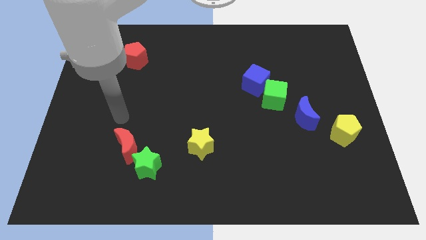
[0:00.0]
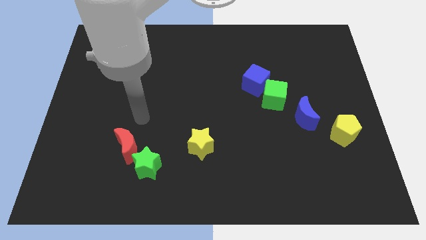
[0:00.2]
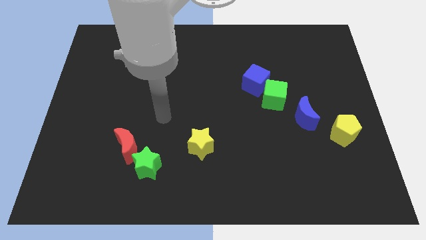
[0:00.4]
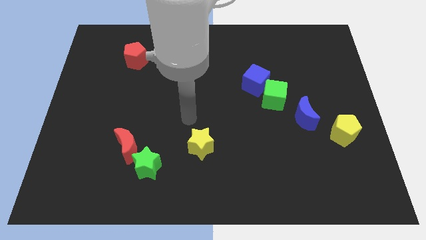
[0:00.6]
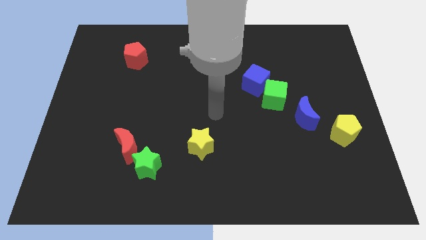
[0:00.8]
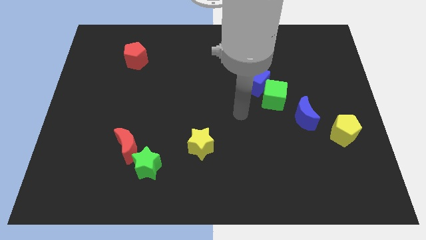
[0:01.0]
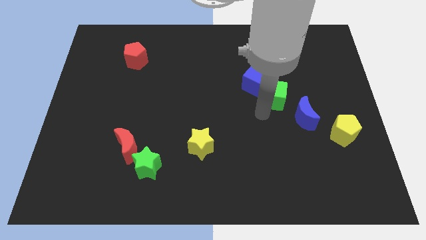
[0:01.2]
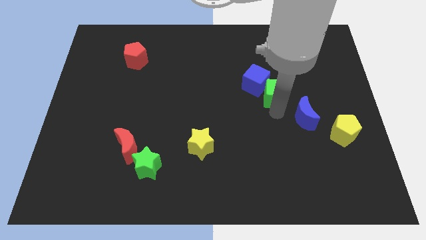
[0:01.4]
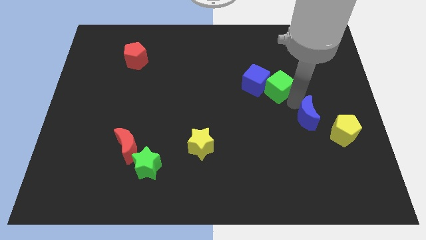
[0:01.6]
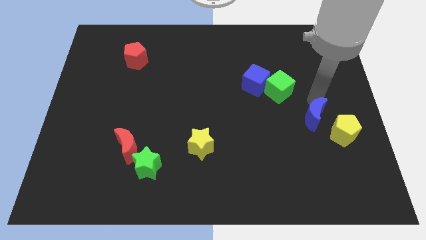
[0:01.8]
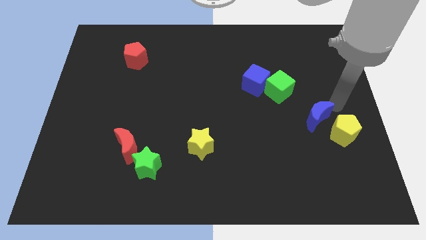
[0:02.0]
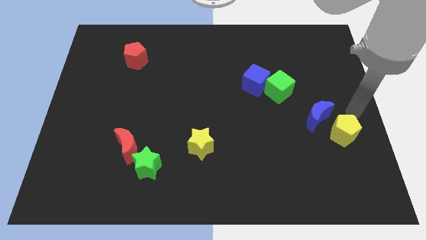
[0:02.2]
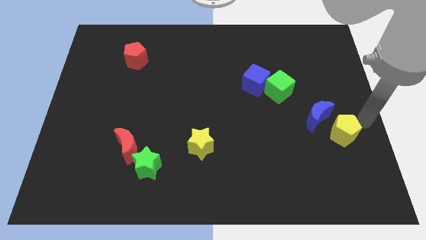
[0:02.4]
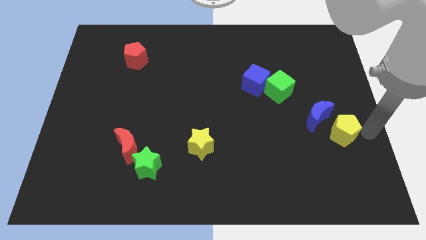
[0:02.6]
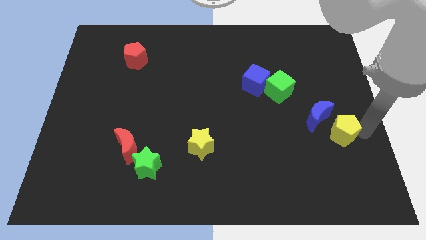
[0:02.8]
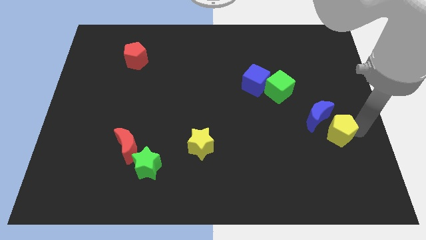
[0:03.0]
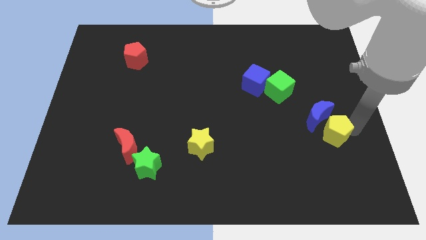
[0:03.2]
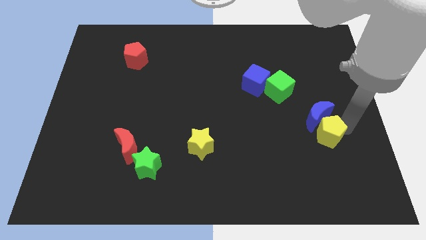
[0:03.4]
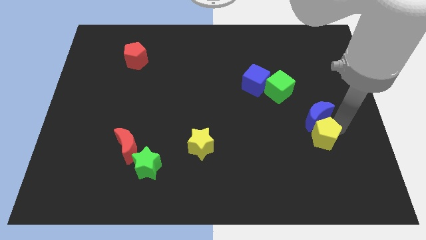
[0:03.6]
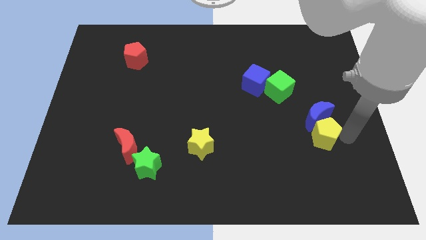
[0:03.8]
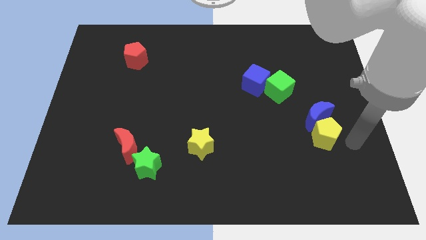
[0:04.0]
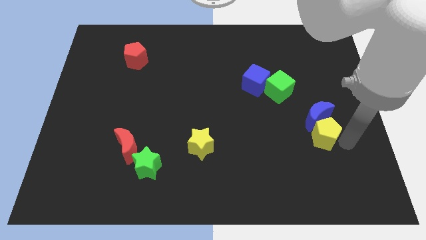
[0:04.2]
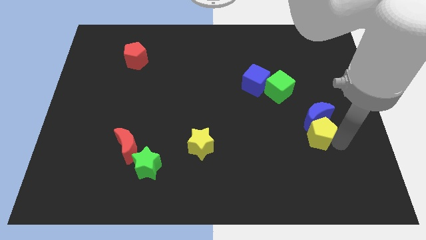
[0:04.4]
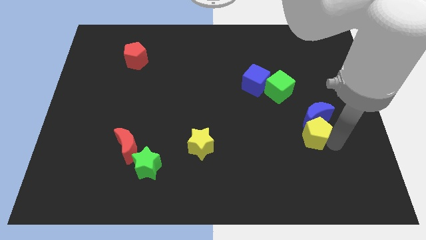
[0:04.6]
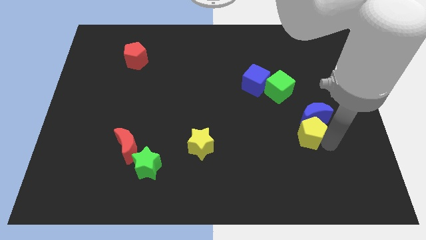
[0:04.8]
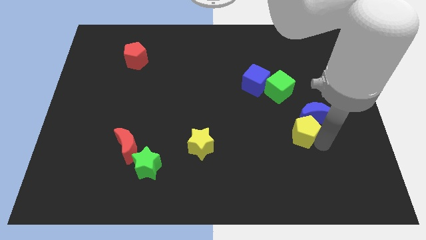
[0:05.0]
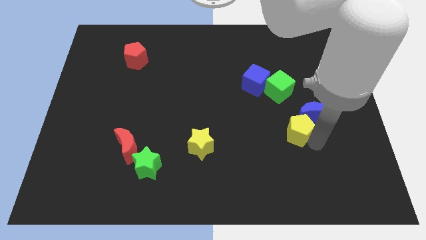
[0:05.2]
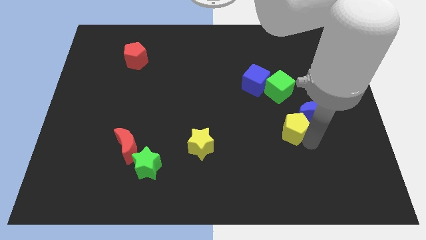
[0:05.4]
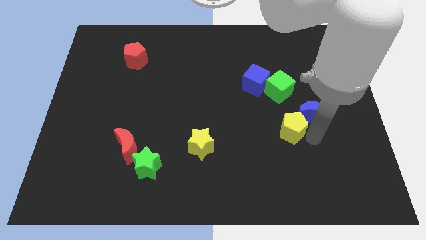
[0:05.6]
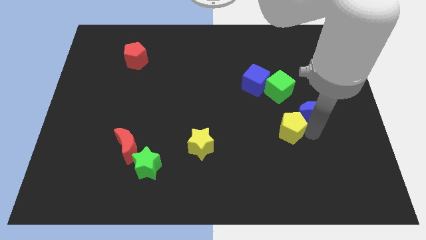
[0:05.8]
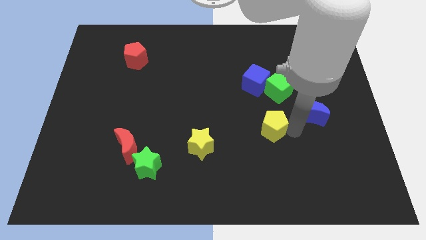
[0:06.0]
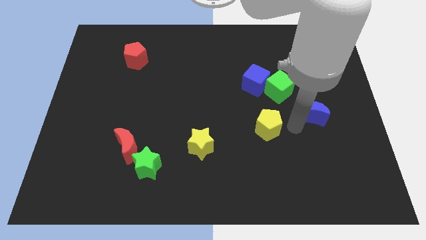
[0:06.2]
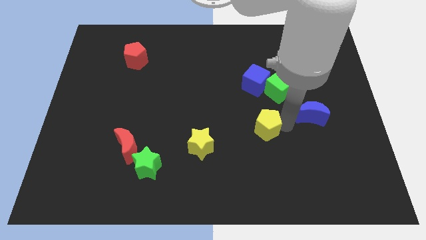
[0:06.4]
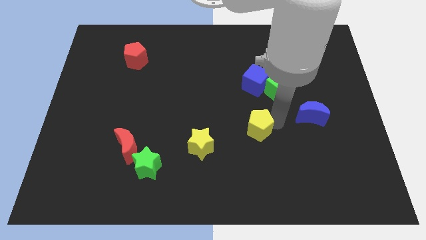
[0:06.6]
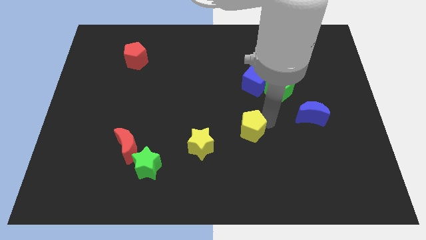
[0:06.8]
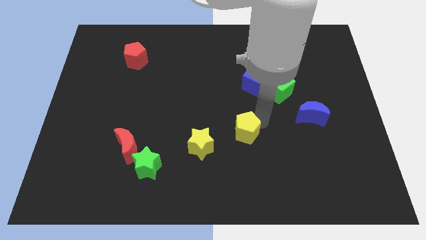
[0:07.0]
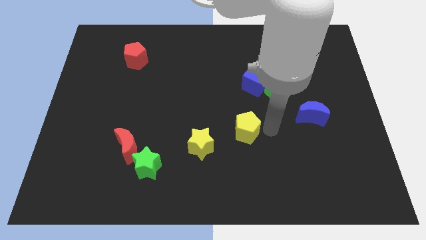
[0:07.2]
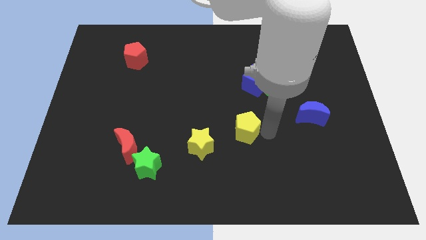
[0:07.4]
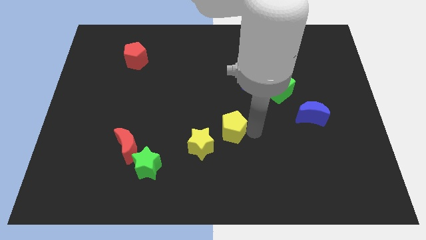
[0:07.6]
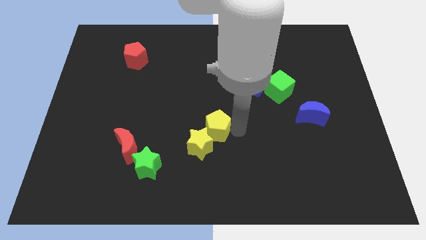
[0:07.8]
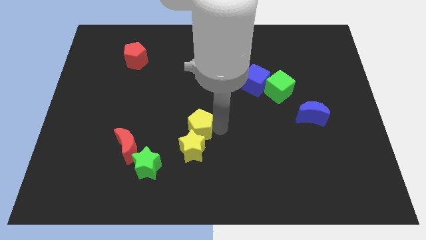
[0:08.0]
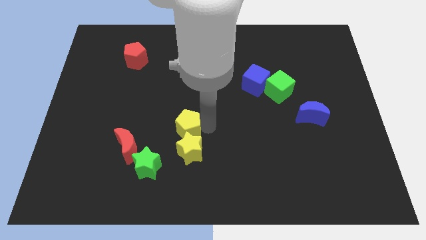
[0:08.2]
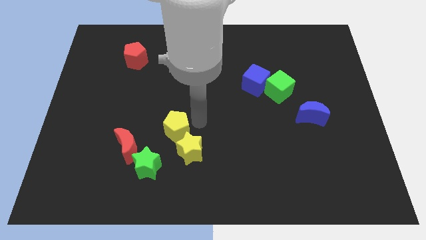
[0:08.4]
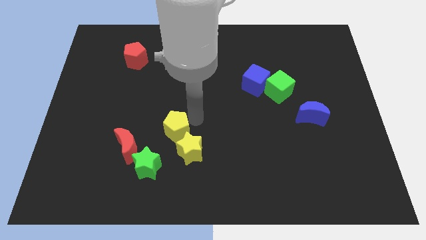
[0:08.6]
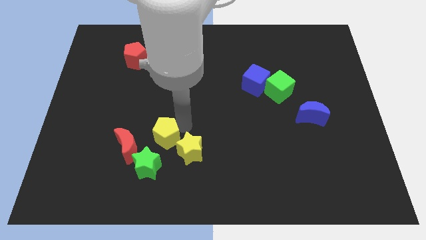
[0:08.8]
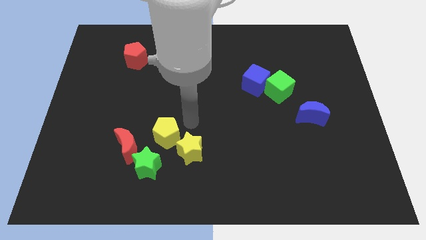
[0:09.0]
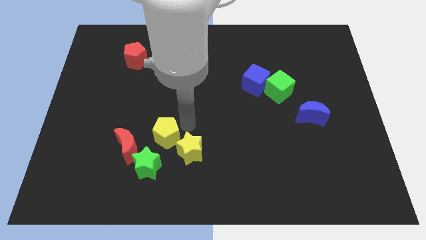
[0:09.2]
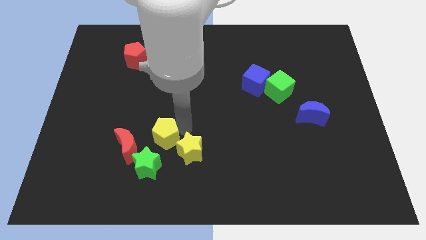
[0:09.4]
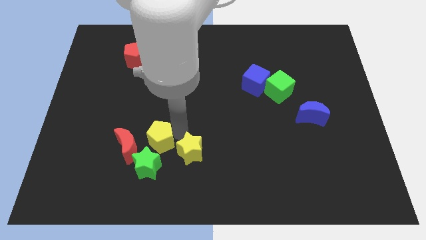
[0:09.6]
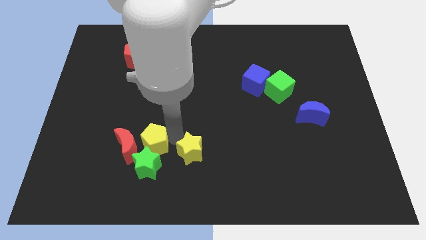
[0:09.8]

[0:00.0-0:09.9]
move the yellow pentagon towards the red moon

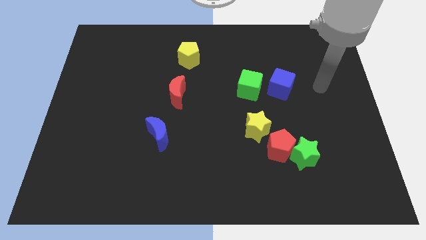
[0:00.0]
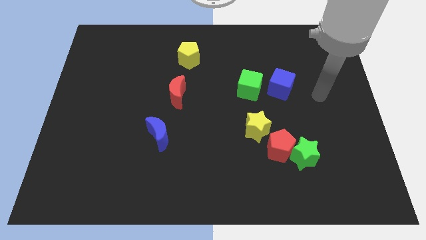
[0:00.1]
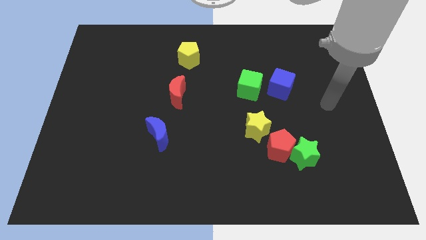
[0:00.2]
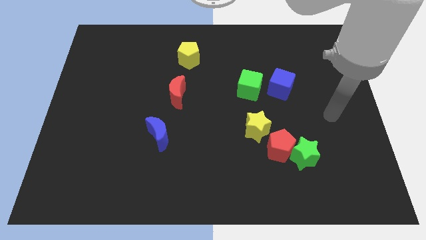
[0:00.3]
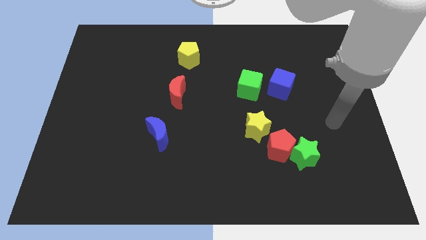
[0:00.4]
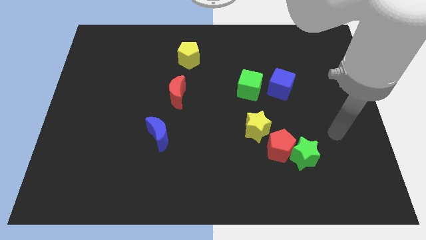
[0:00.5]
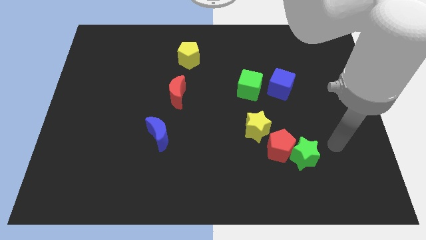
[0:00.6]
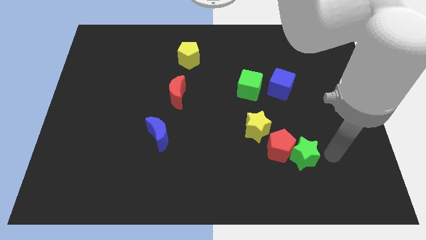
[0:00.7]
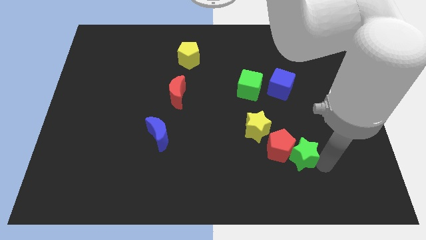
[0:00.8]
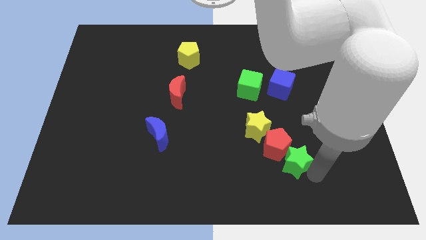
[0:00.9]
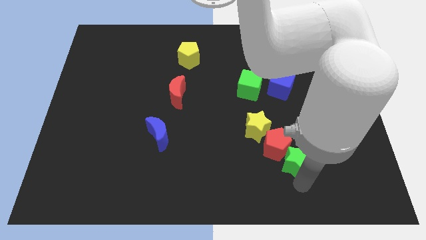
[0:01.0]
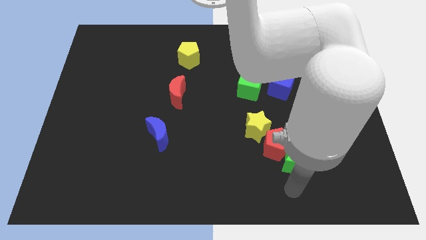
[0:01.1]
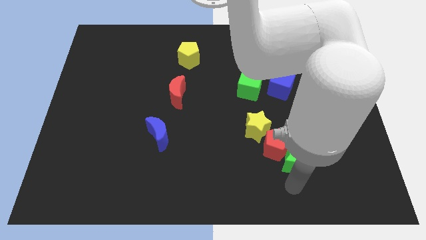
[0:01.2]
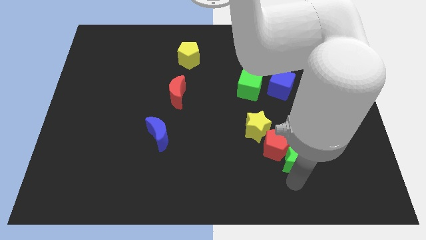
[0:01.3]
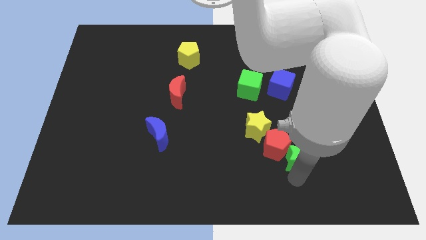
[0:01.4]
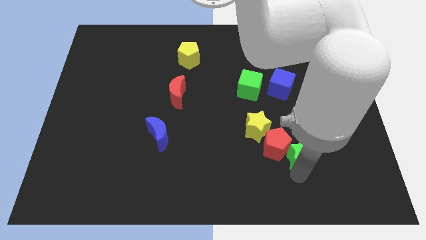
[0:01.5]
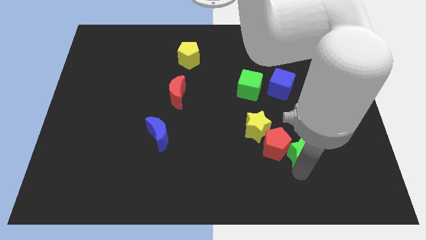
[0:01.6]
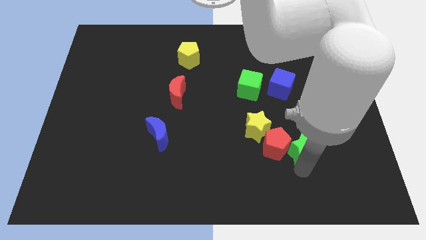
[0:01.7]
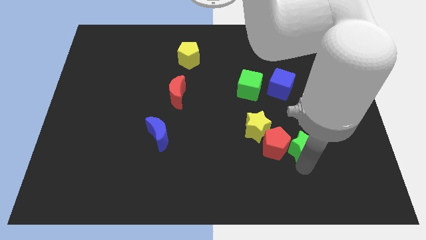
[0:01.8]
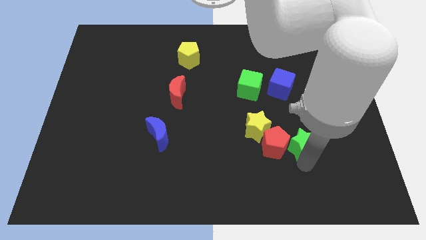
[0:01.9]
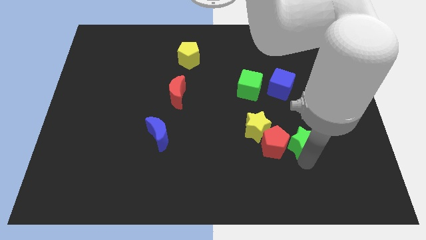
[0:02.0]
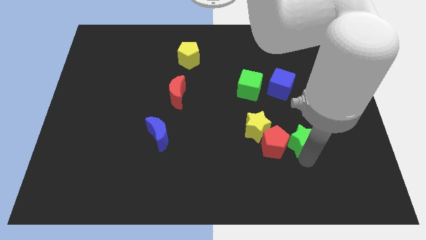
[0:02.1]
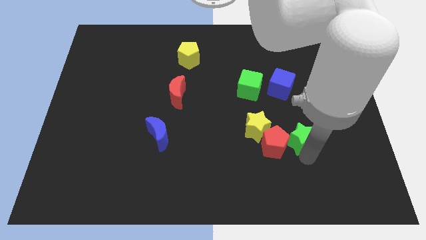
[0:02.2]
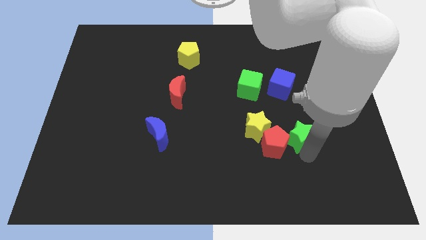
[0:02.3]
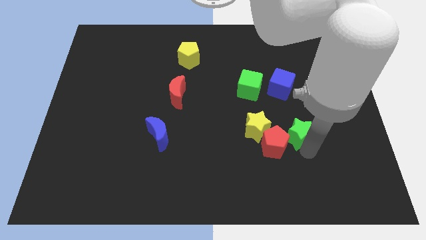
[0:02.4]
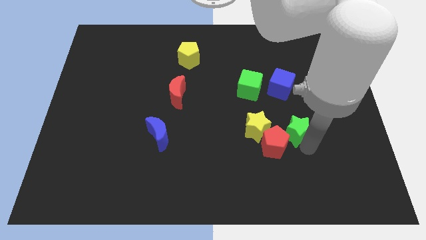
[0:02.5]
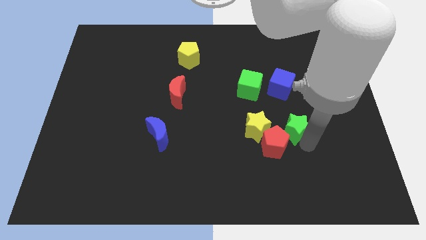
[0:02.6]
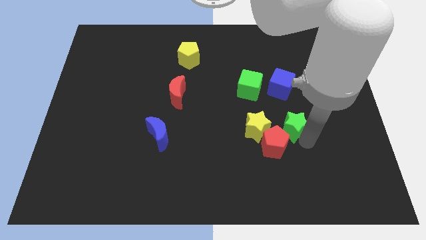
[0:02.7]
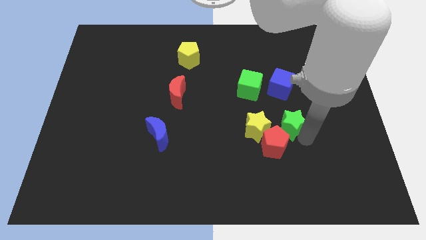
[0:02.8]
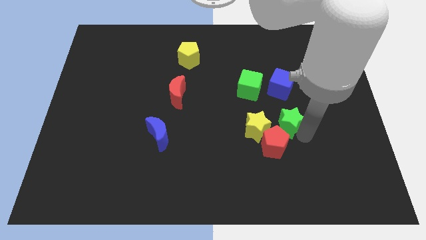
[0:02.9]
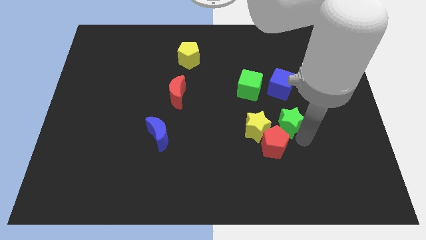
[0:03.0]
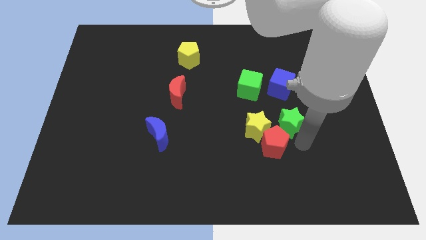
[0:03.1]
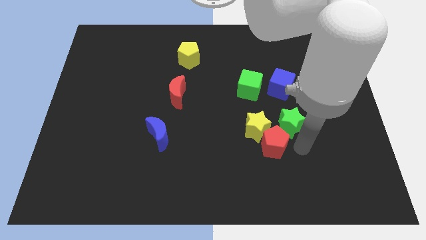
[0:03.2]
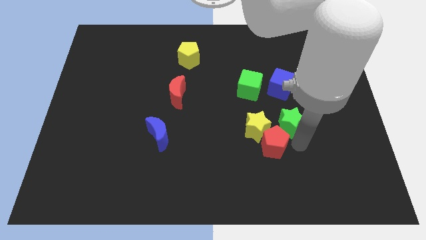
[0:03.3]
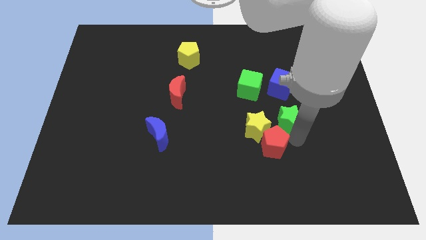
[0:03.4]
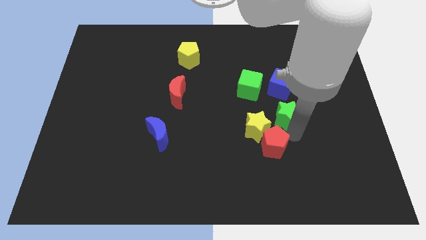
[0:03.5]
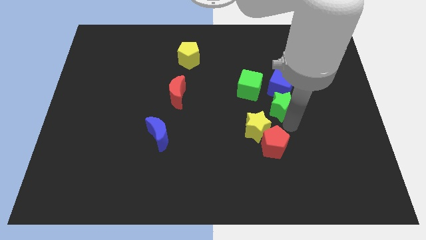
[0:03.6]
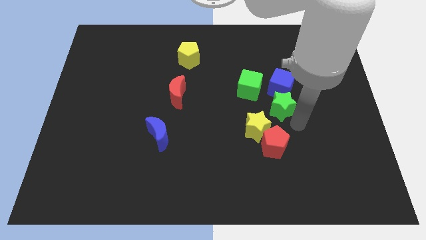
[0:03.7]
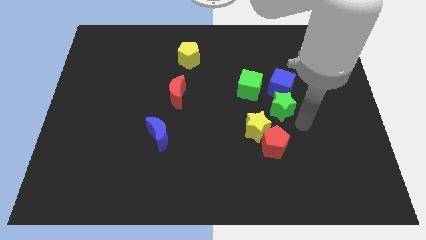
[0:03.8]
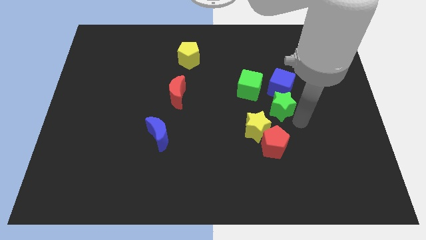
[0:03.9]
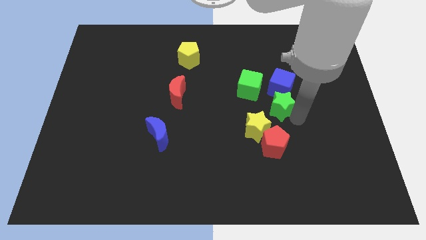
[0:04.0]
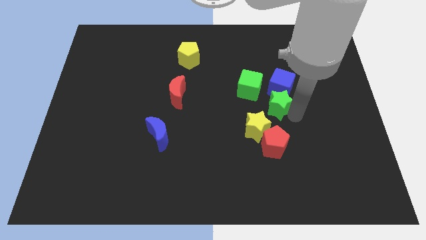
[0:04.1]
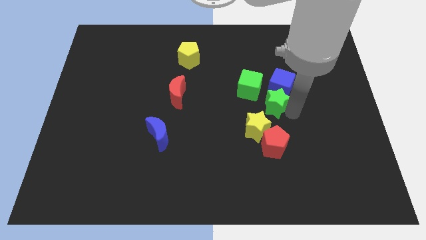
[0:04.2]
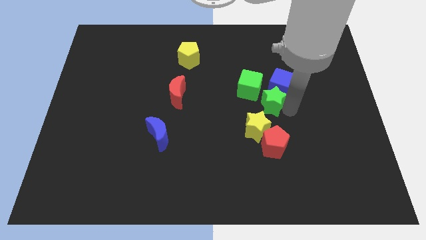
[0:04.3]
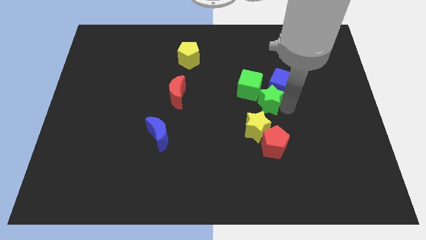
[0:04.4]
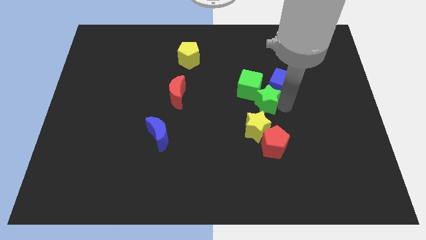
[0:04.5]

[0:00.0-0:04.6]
put the green star next to the green cube
